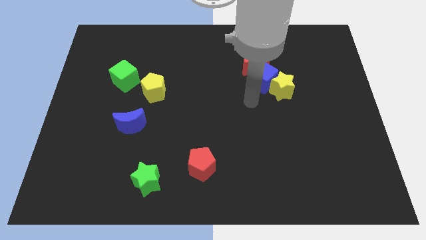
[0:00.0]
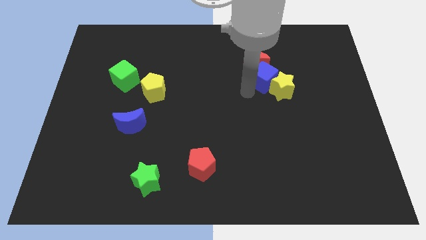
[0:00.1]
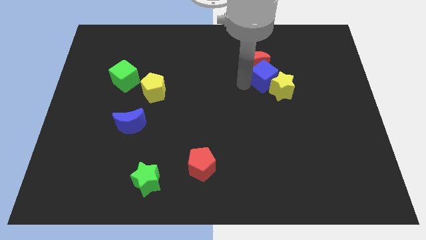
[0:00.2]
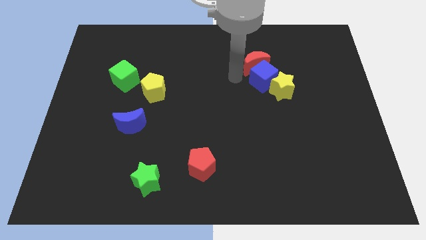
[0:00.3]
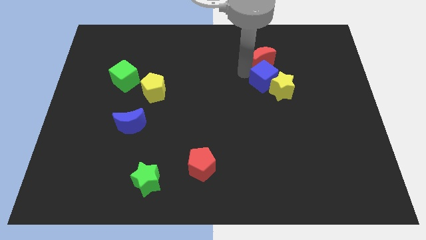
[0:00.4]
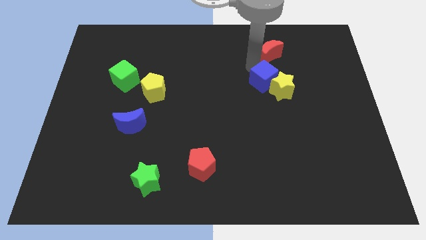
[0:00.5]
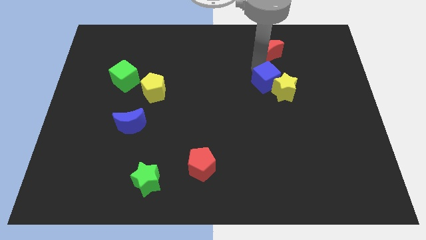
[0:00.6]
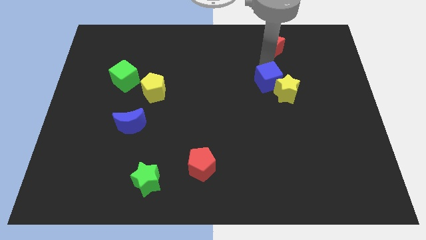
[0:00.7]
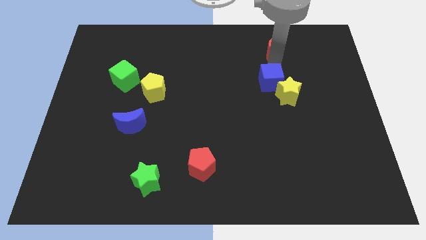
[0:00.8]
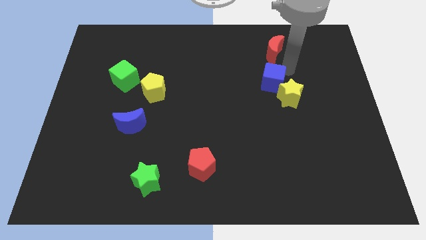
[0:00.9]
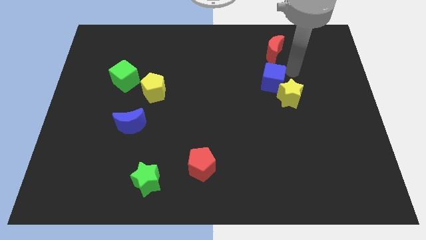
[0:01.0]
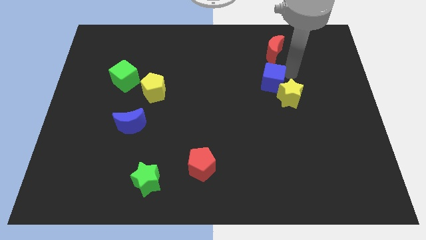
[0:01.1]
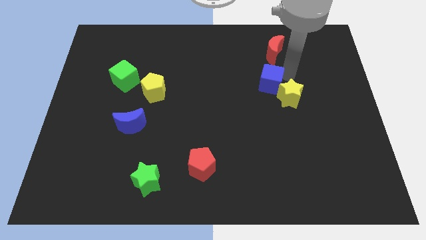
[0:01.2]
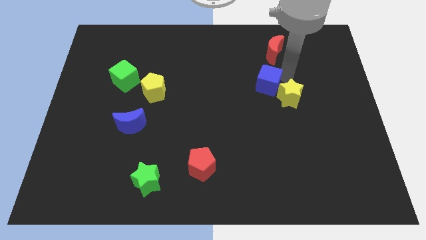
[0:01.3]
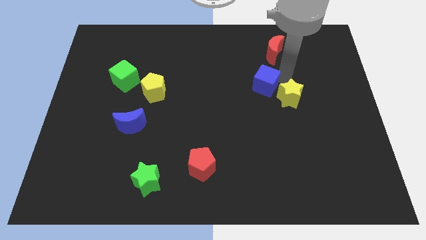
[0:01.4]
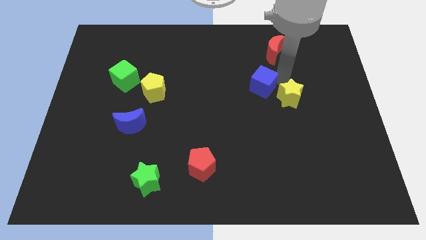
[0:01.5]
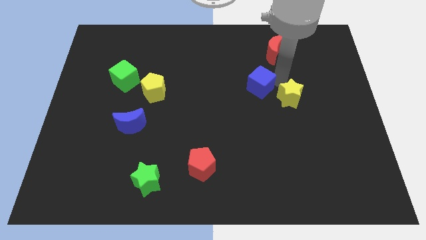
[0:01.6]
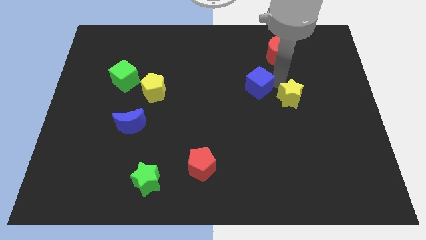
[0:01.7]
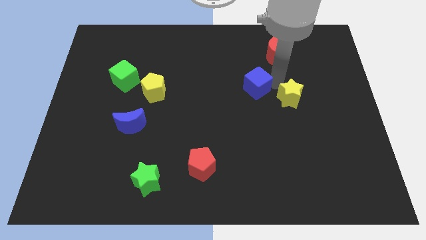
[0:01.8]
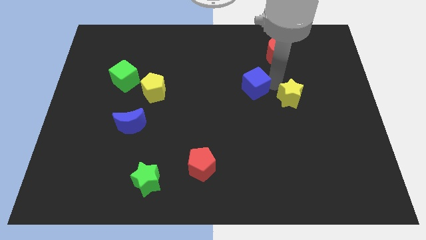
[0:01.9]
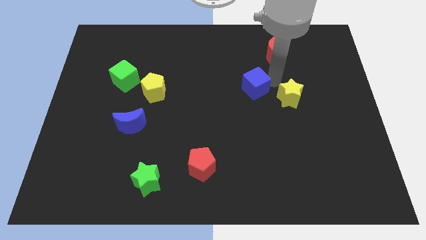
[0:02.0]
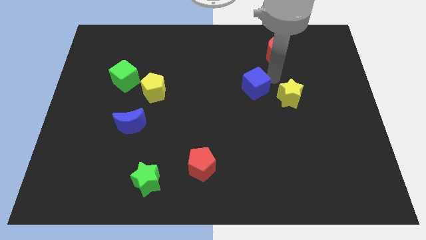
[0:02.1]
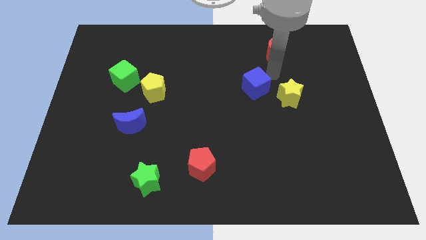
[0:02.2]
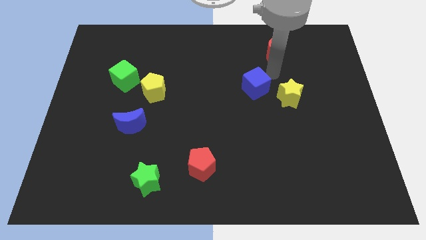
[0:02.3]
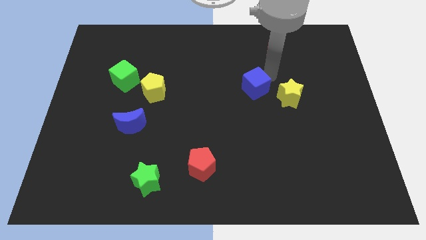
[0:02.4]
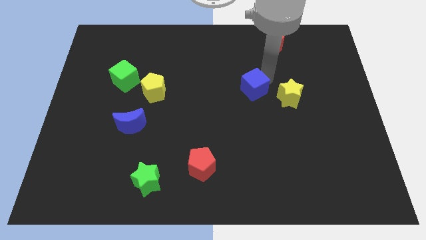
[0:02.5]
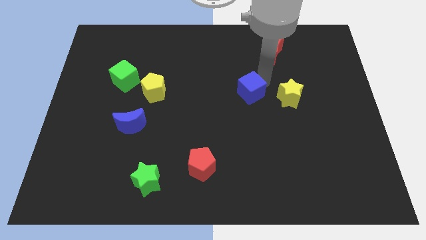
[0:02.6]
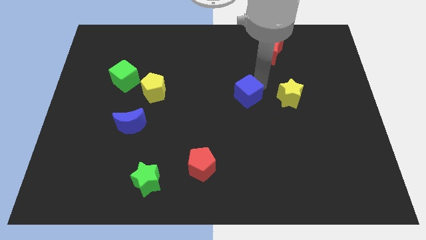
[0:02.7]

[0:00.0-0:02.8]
move the blue cube away from the yellow star and red moon

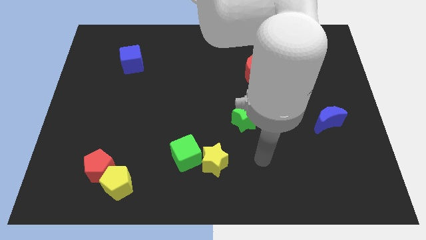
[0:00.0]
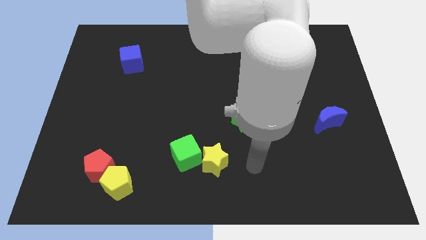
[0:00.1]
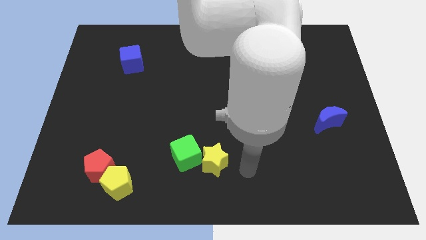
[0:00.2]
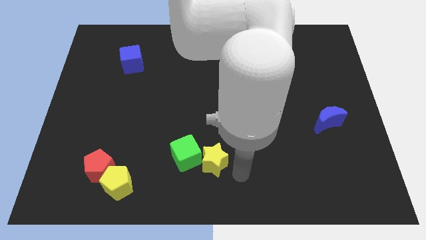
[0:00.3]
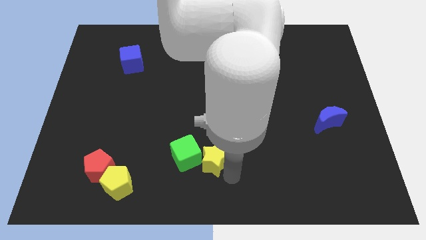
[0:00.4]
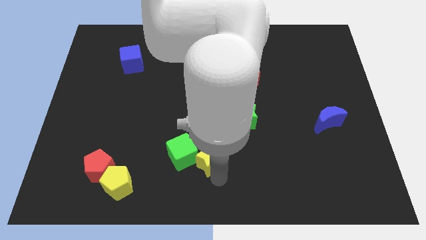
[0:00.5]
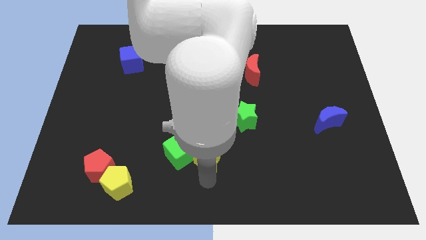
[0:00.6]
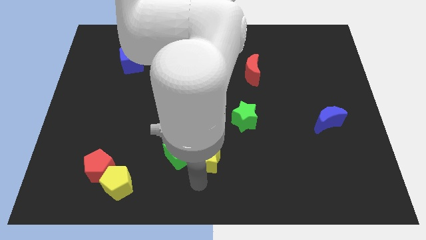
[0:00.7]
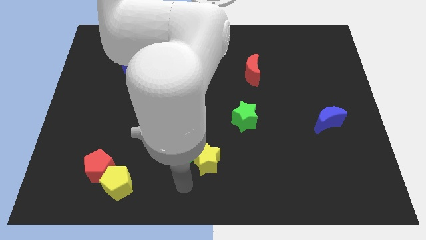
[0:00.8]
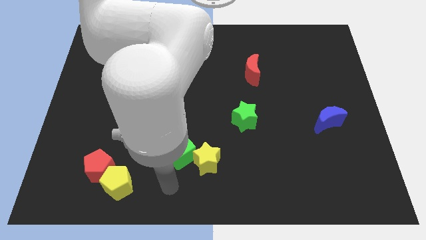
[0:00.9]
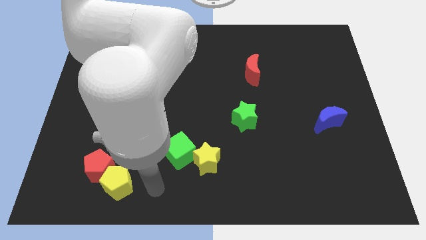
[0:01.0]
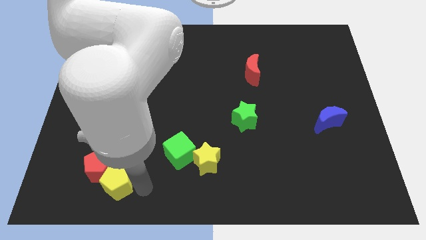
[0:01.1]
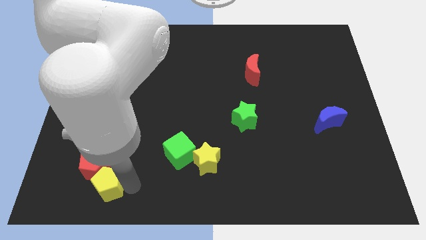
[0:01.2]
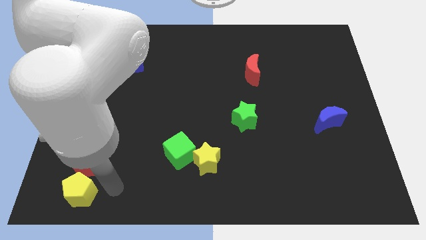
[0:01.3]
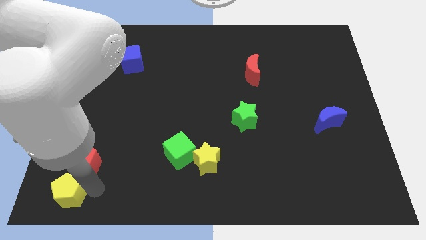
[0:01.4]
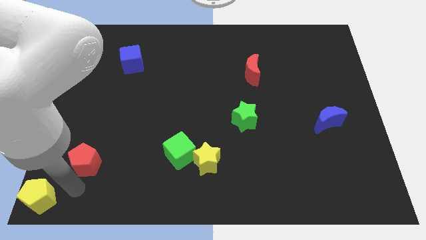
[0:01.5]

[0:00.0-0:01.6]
pull the red pentagon apart from the yellow pentagon

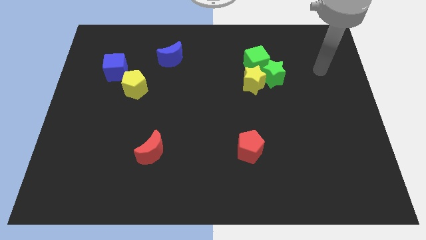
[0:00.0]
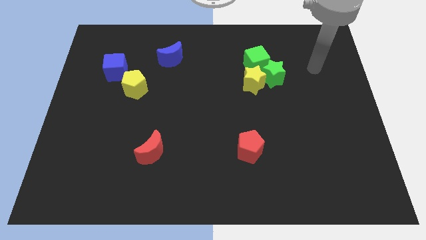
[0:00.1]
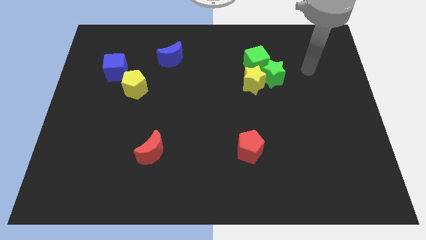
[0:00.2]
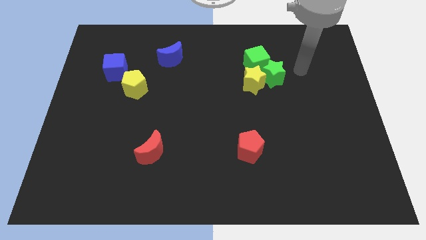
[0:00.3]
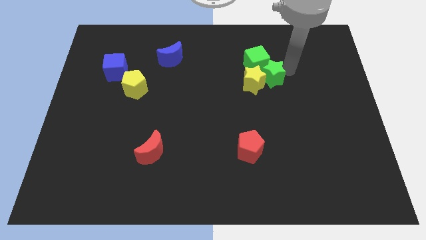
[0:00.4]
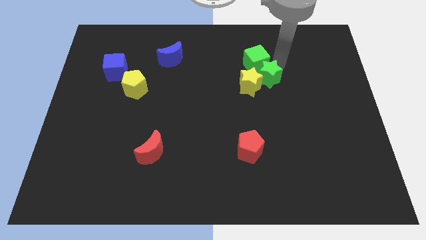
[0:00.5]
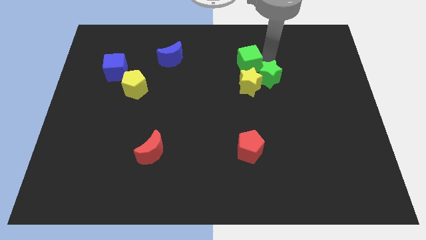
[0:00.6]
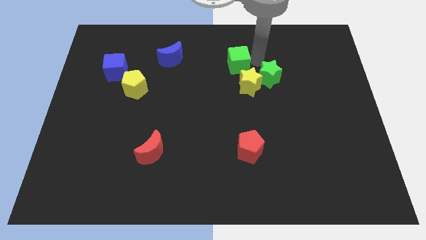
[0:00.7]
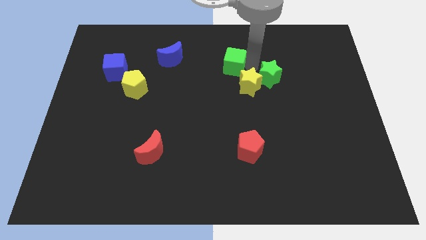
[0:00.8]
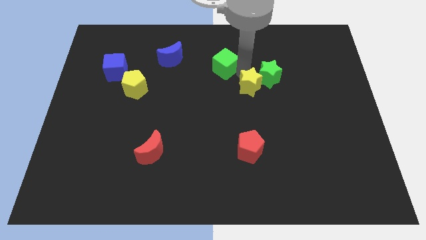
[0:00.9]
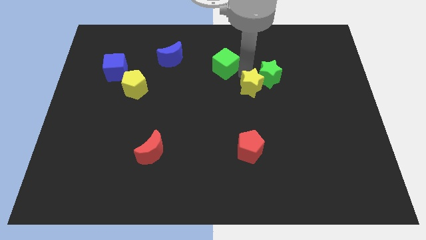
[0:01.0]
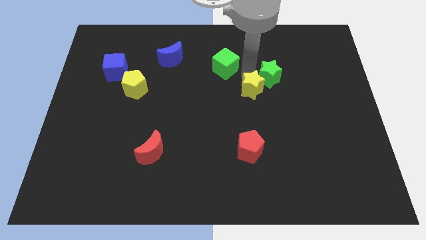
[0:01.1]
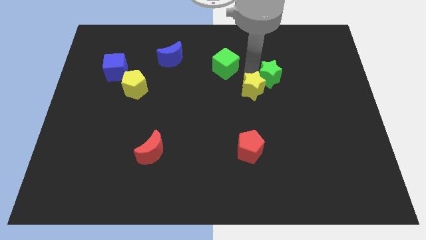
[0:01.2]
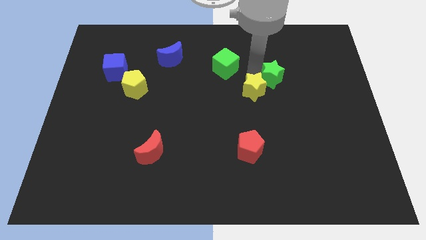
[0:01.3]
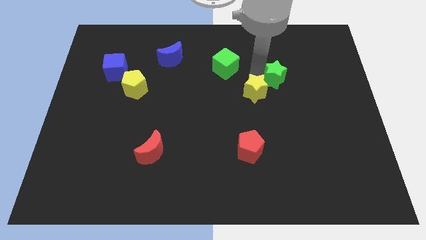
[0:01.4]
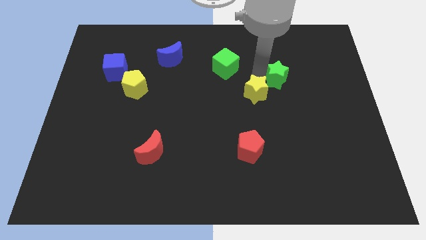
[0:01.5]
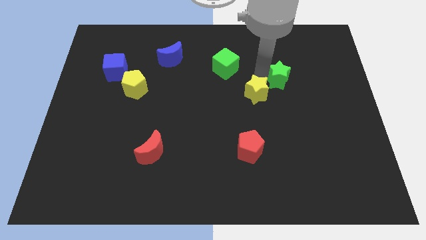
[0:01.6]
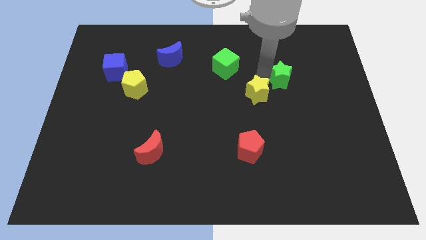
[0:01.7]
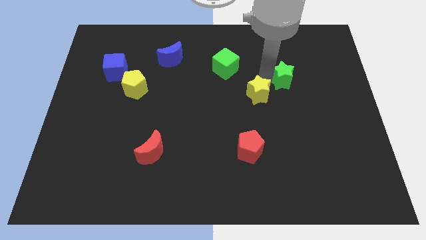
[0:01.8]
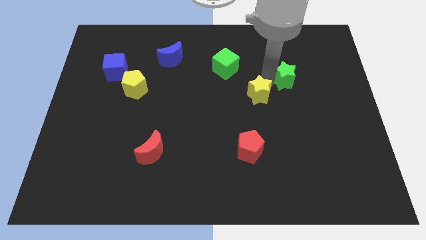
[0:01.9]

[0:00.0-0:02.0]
pull the green star apart from the yellow star and green cube

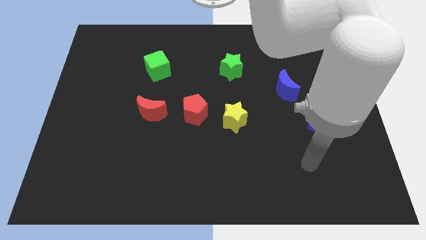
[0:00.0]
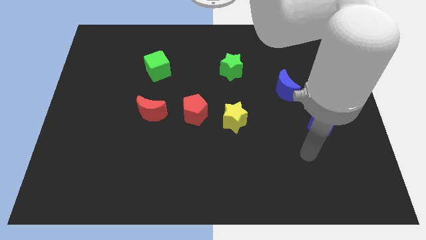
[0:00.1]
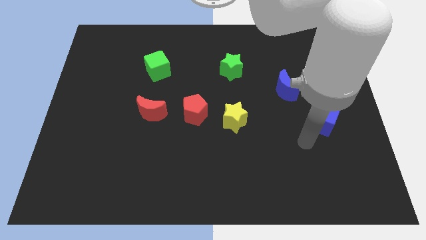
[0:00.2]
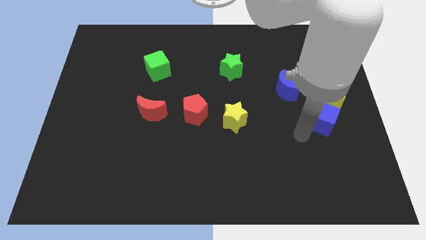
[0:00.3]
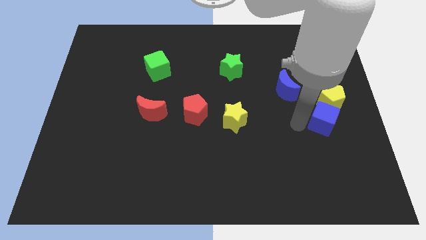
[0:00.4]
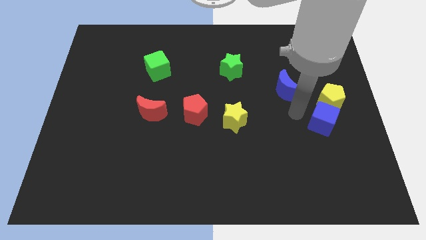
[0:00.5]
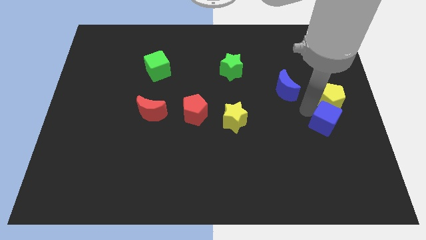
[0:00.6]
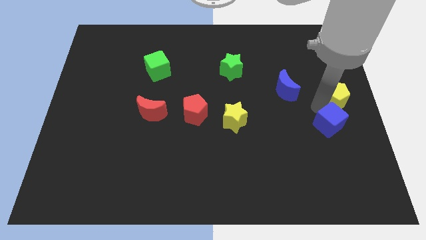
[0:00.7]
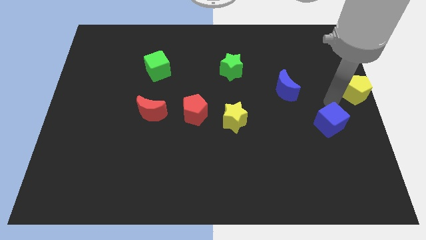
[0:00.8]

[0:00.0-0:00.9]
move the blue cube away from the yellow pentagon

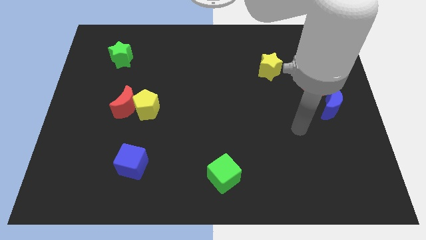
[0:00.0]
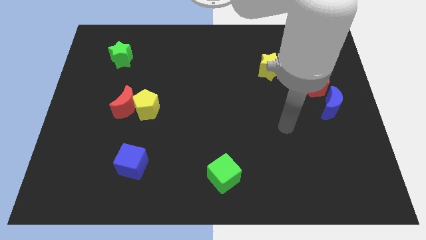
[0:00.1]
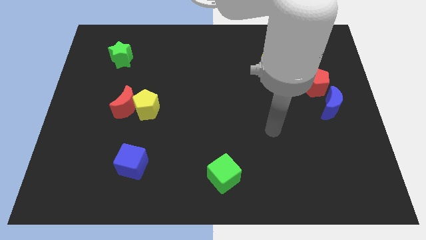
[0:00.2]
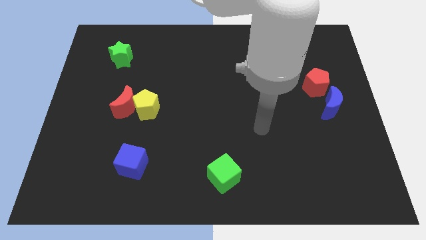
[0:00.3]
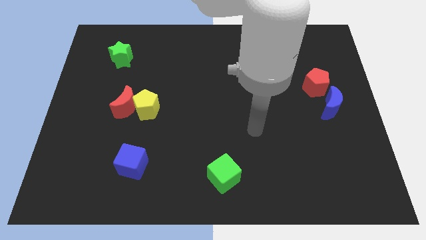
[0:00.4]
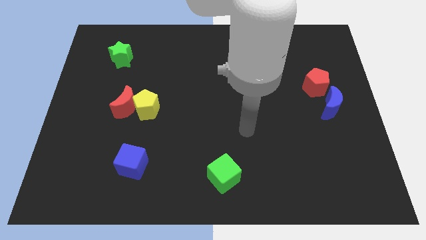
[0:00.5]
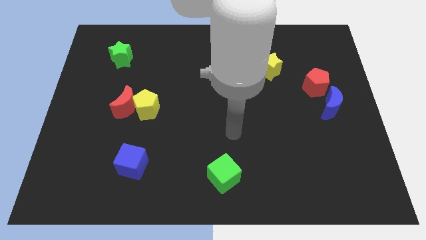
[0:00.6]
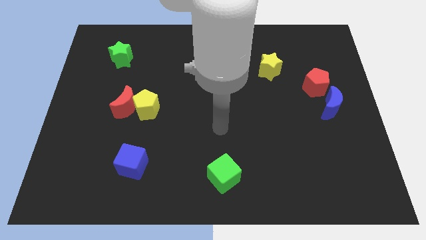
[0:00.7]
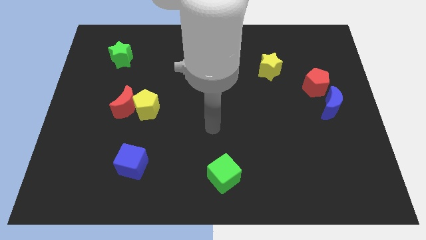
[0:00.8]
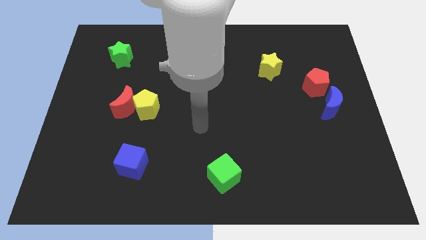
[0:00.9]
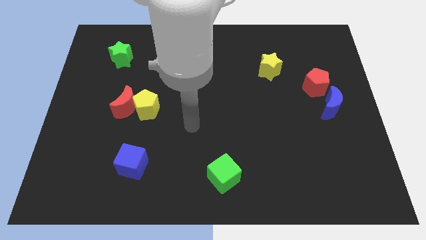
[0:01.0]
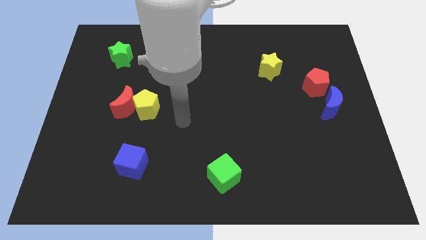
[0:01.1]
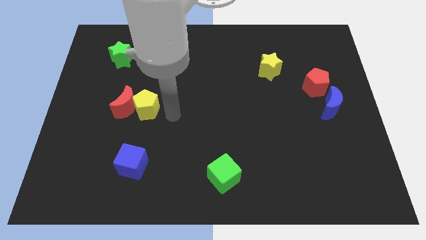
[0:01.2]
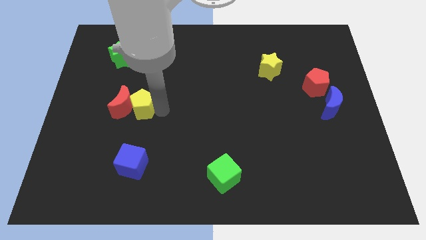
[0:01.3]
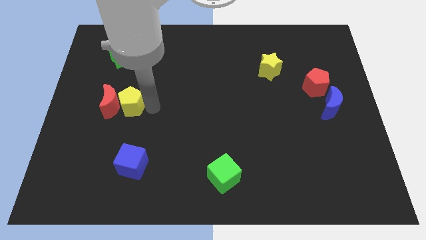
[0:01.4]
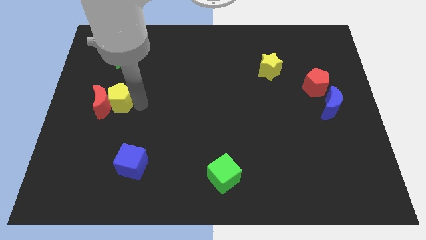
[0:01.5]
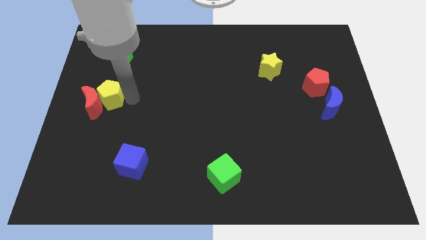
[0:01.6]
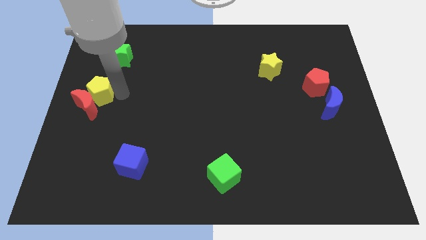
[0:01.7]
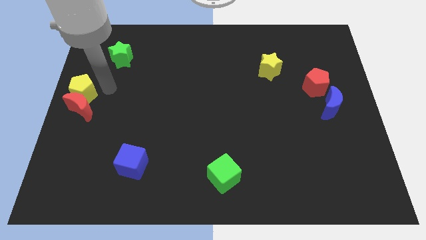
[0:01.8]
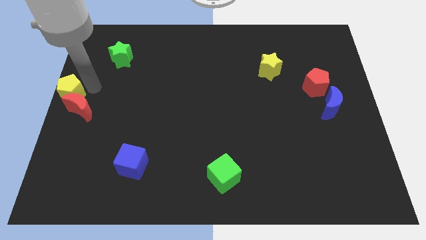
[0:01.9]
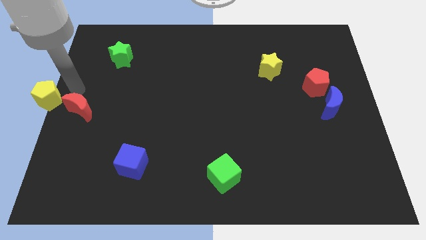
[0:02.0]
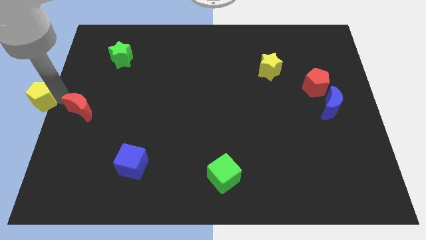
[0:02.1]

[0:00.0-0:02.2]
move the red moon away from the yellow pentagon
